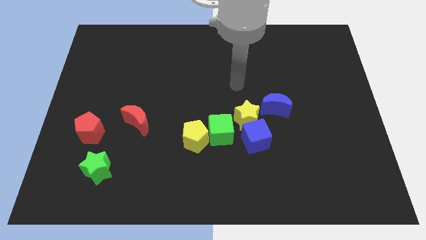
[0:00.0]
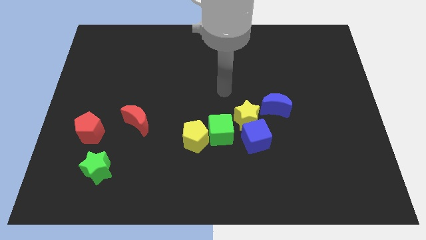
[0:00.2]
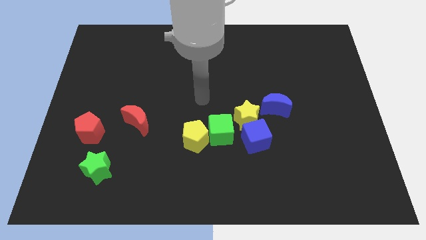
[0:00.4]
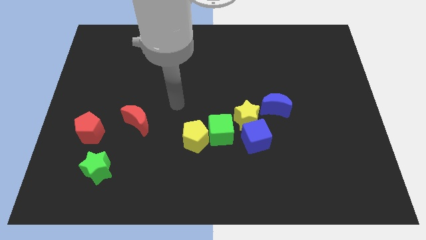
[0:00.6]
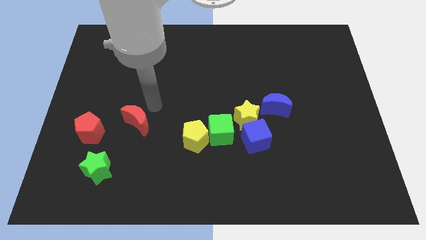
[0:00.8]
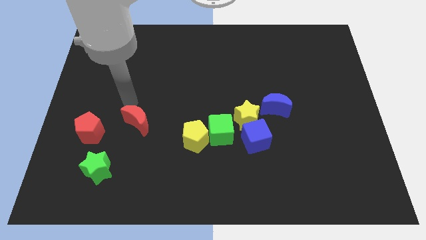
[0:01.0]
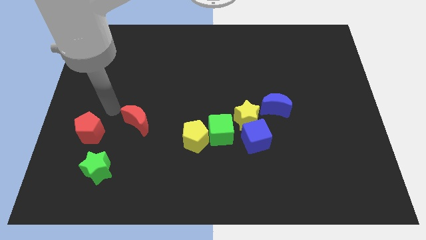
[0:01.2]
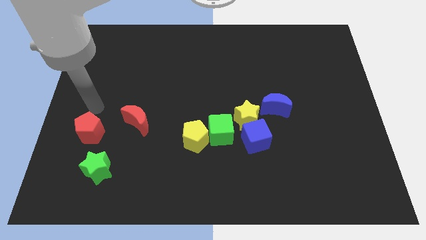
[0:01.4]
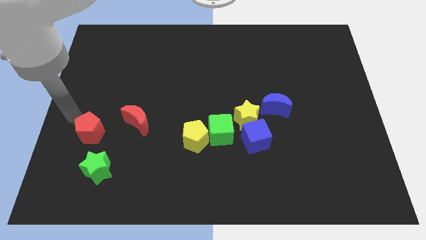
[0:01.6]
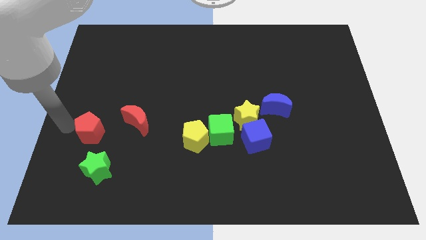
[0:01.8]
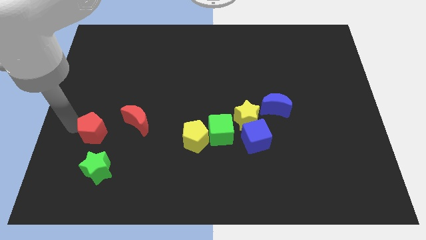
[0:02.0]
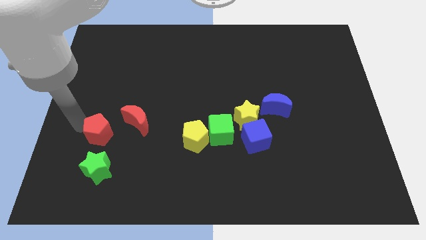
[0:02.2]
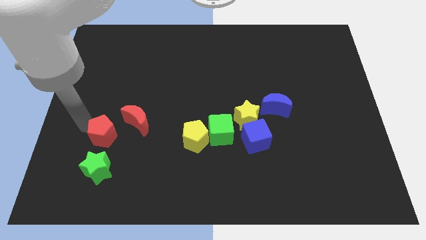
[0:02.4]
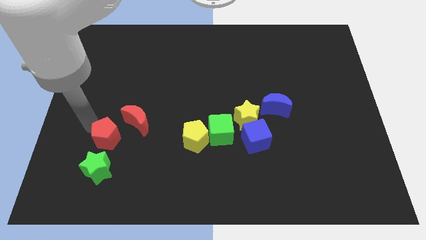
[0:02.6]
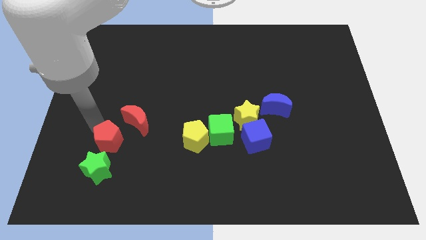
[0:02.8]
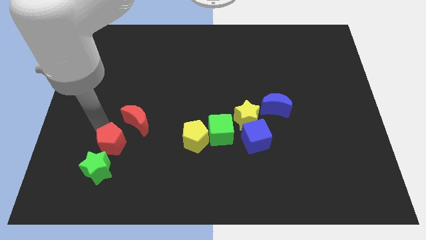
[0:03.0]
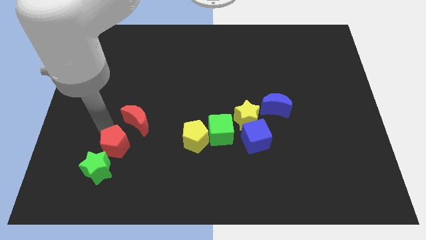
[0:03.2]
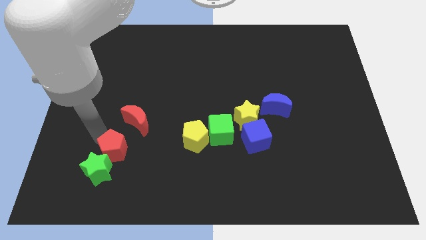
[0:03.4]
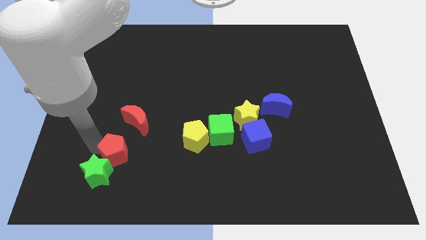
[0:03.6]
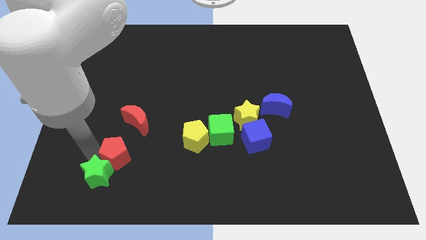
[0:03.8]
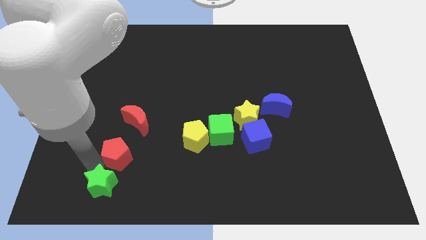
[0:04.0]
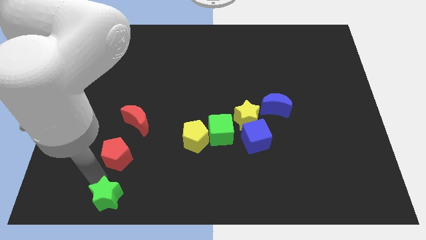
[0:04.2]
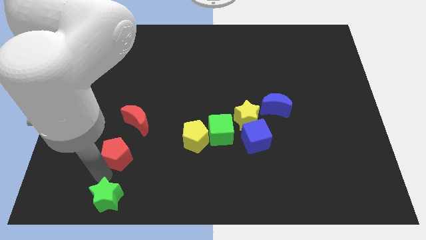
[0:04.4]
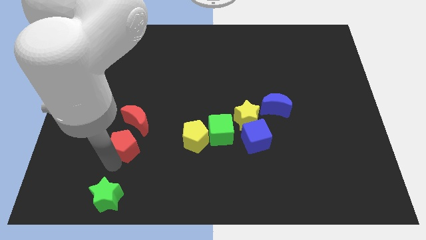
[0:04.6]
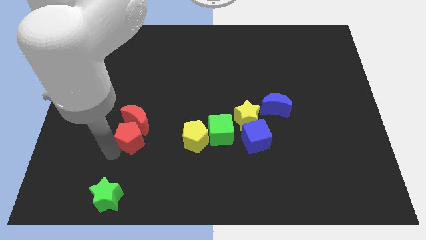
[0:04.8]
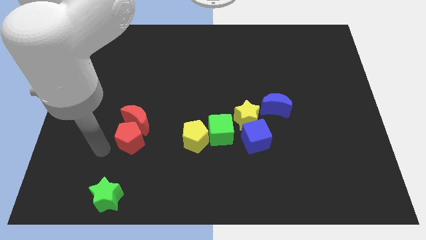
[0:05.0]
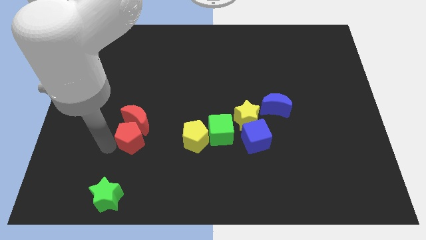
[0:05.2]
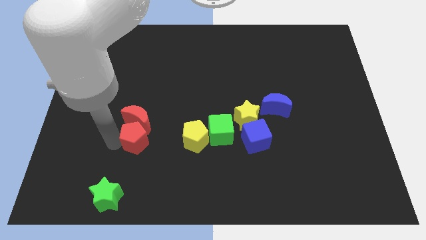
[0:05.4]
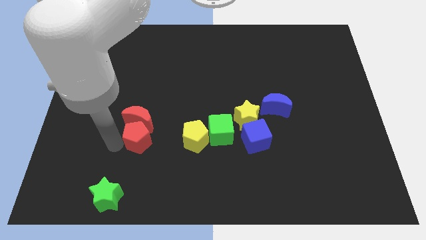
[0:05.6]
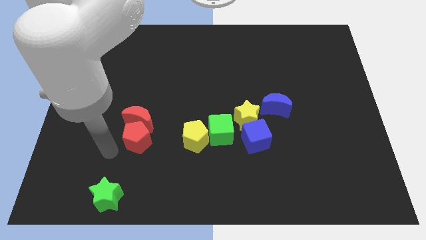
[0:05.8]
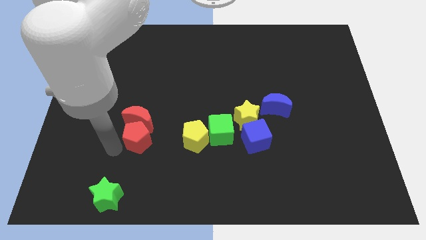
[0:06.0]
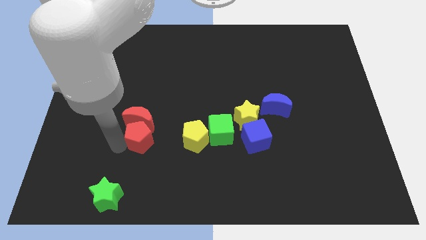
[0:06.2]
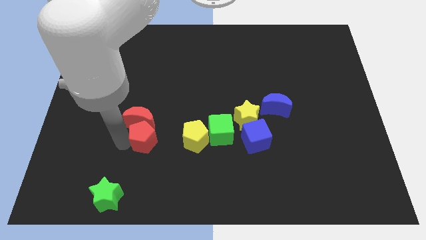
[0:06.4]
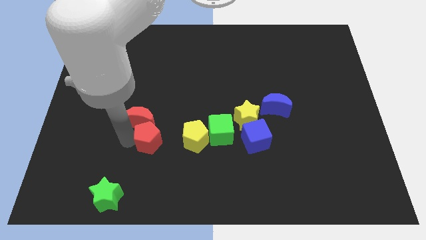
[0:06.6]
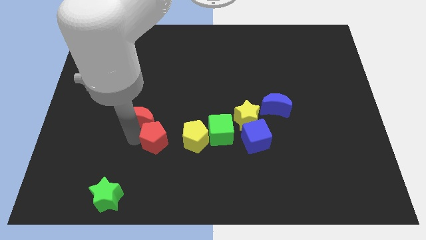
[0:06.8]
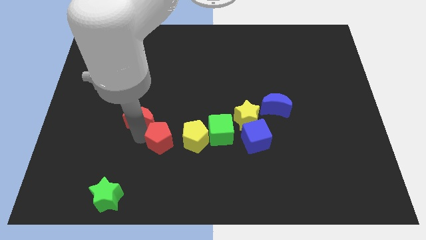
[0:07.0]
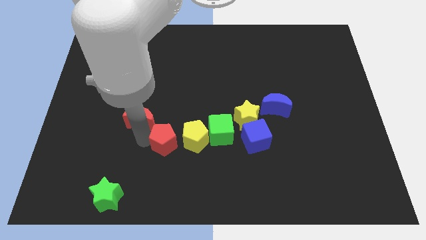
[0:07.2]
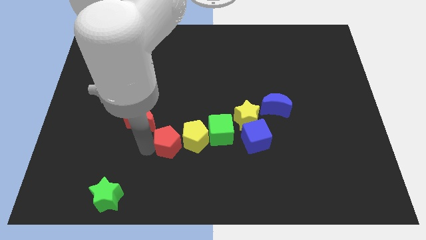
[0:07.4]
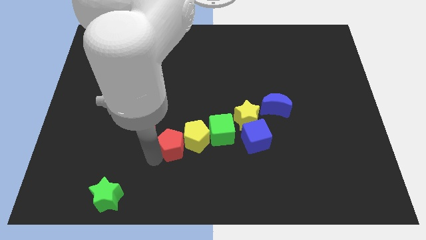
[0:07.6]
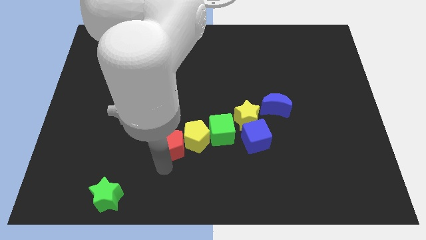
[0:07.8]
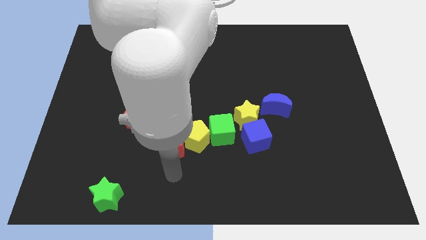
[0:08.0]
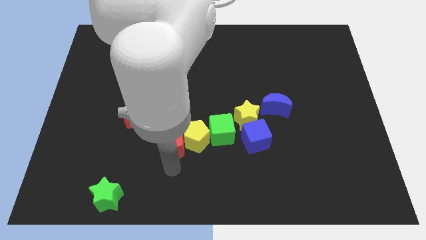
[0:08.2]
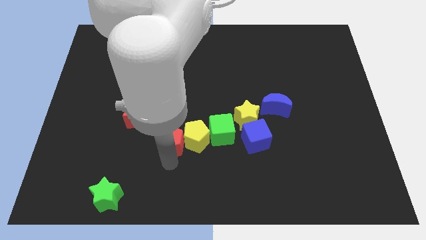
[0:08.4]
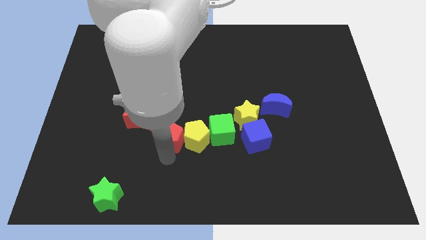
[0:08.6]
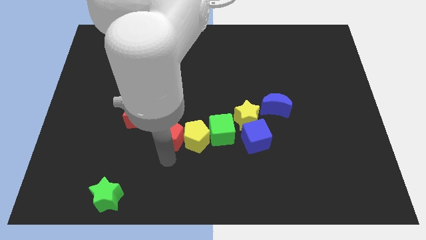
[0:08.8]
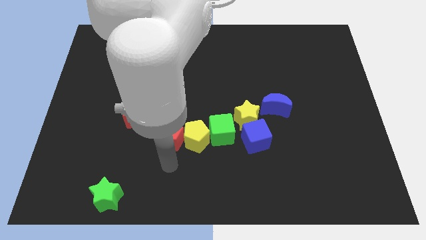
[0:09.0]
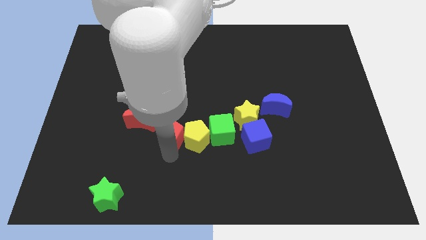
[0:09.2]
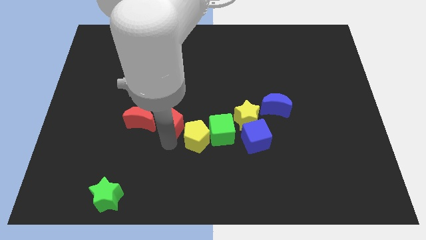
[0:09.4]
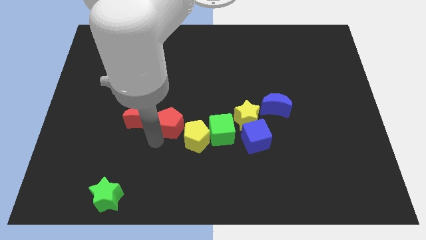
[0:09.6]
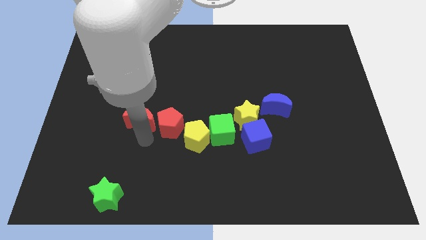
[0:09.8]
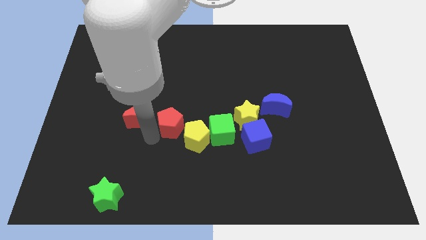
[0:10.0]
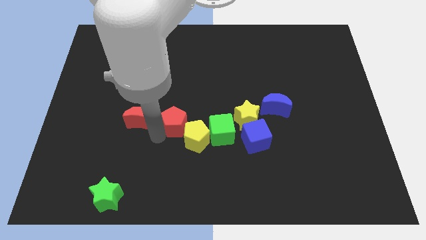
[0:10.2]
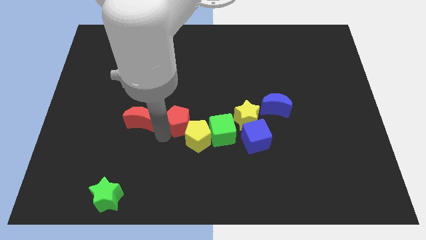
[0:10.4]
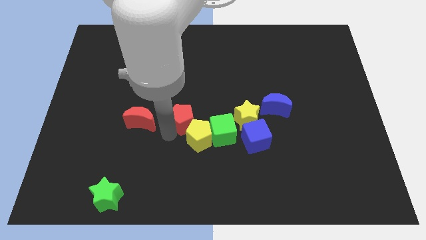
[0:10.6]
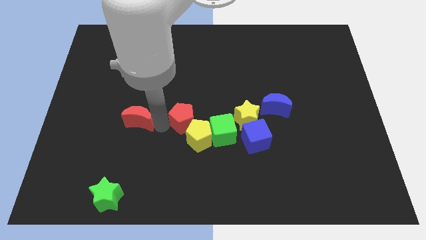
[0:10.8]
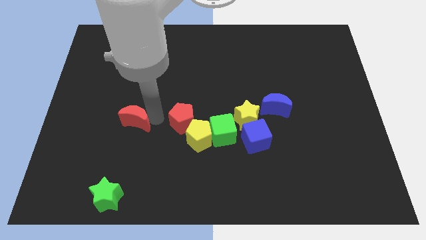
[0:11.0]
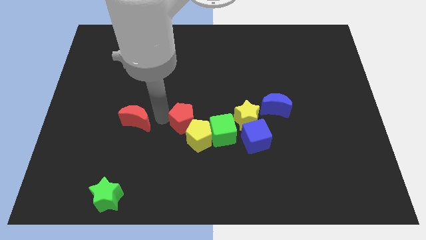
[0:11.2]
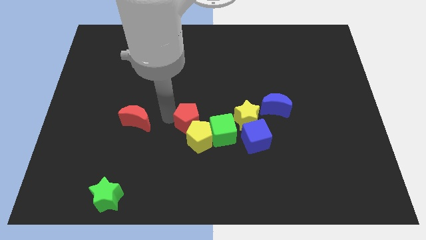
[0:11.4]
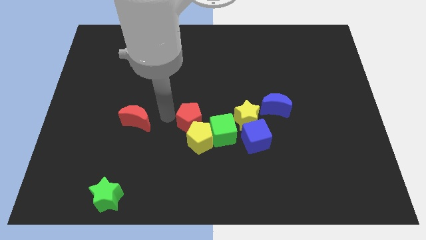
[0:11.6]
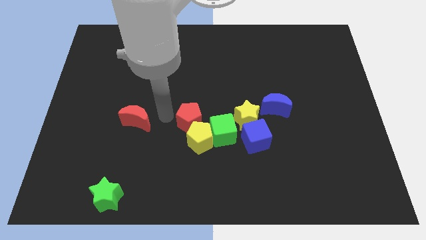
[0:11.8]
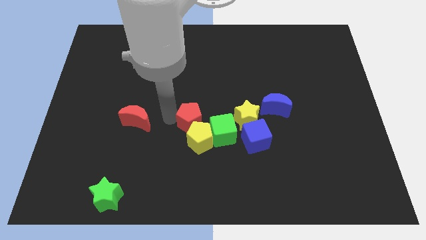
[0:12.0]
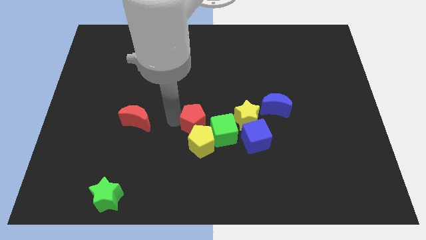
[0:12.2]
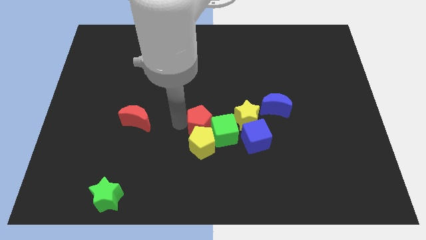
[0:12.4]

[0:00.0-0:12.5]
move the red pentagon to the green cube

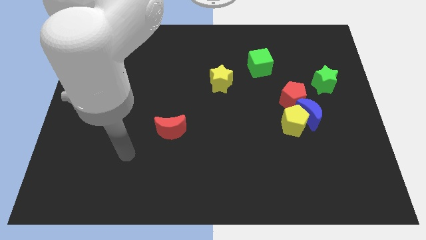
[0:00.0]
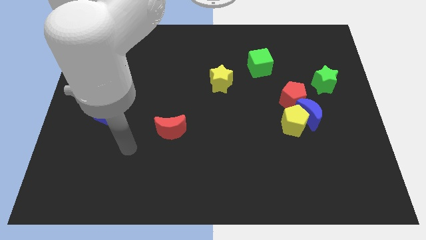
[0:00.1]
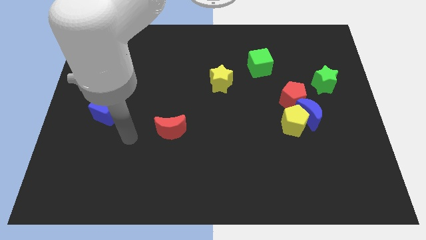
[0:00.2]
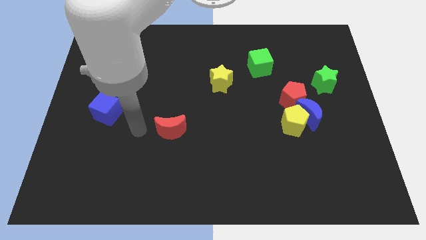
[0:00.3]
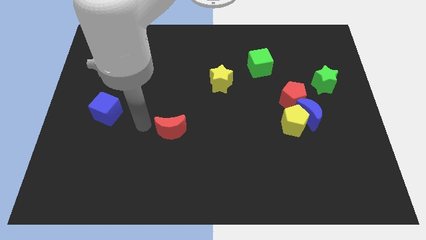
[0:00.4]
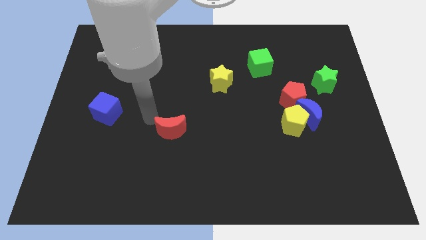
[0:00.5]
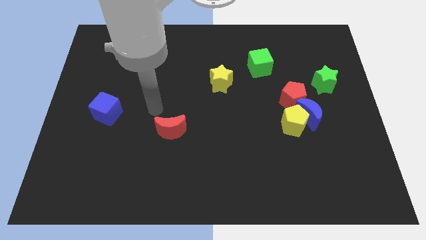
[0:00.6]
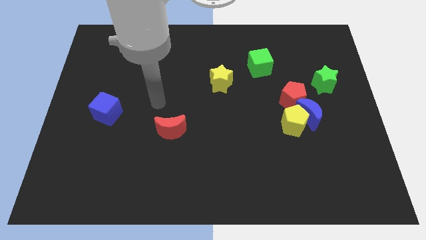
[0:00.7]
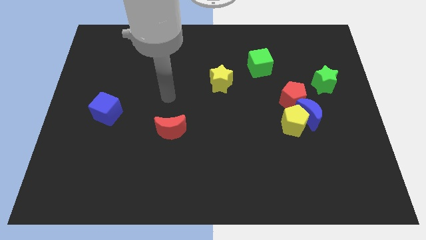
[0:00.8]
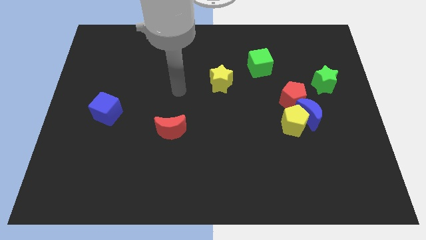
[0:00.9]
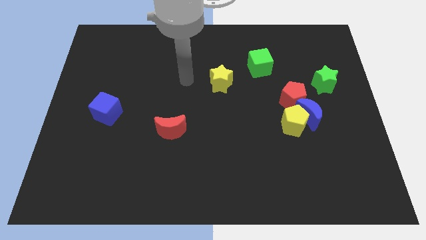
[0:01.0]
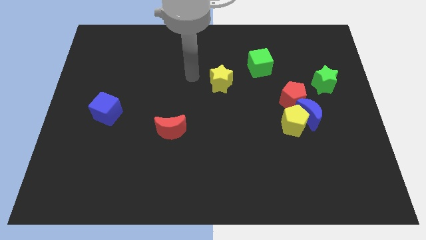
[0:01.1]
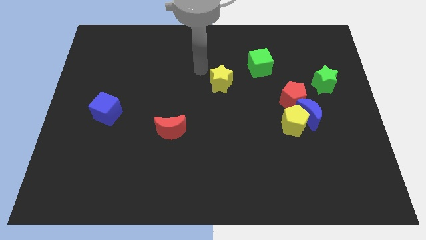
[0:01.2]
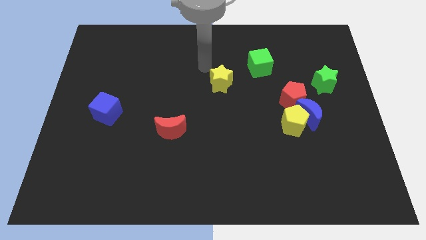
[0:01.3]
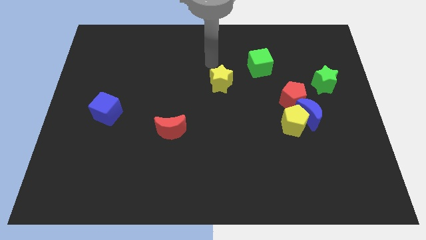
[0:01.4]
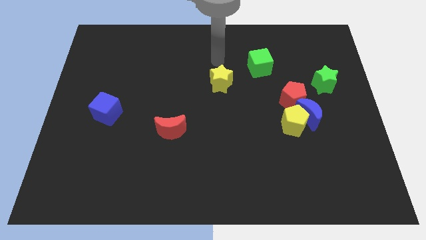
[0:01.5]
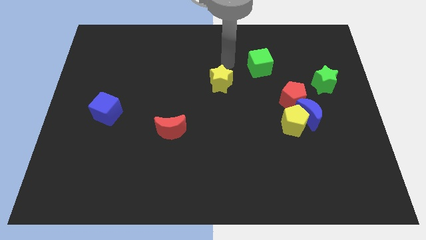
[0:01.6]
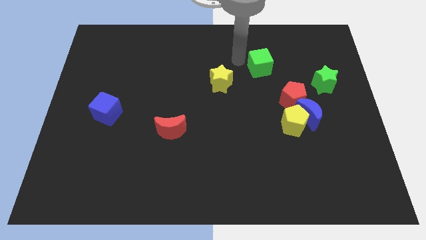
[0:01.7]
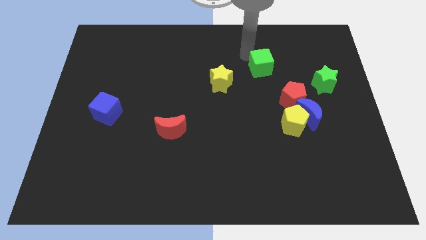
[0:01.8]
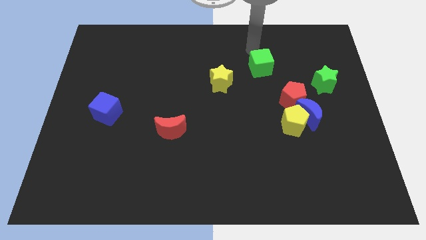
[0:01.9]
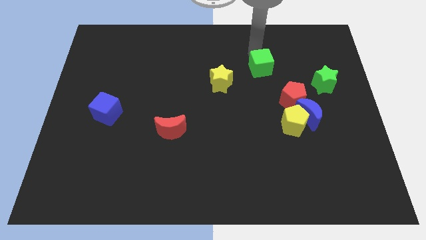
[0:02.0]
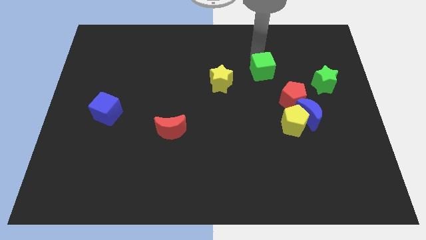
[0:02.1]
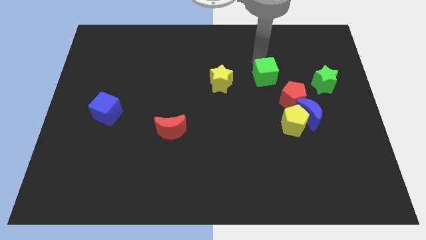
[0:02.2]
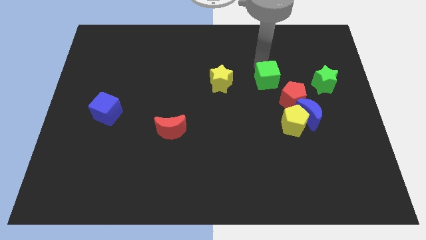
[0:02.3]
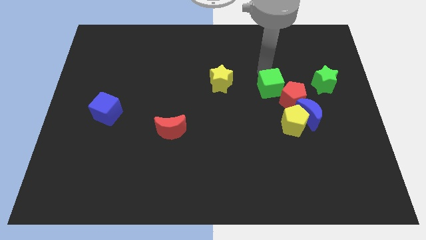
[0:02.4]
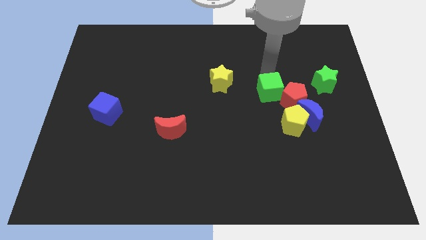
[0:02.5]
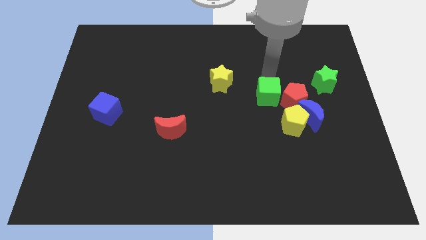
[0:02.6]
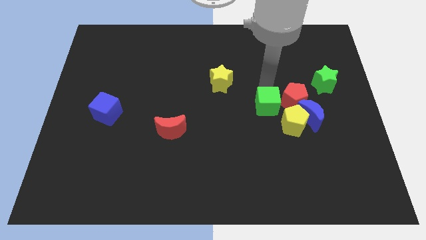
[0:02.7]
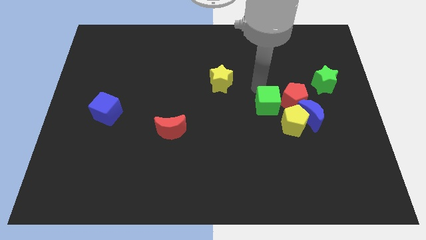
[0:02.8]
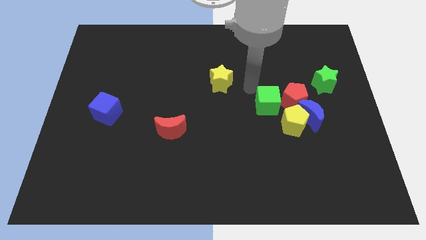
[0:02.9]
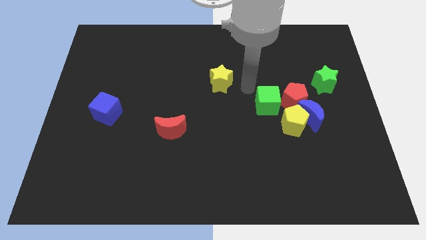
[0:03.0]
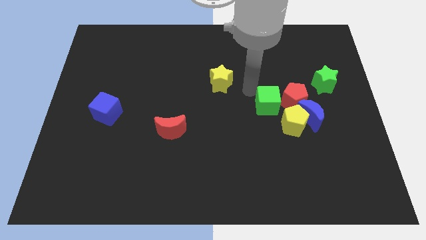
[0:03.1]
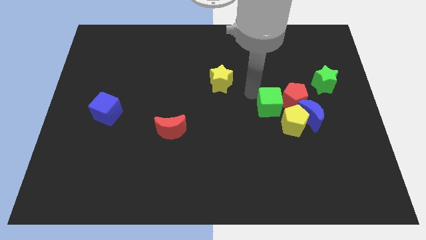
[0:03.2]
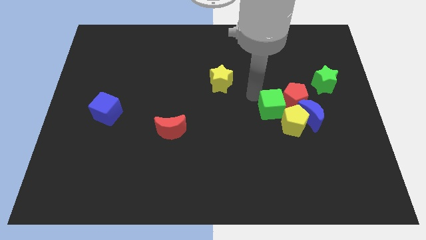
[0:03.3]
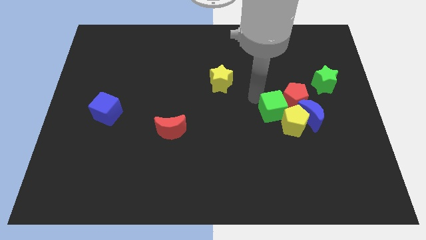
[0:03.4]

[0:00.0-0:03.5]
slide the green cube close to the yellow pentagon
